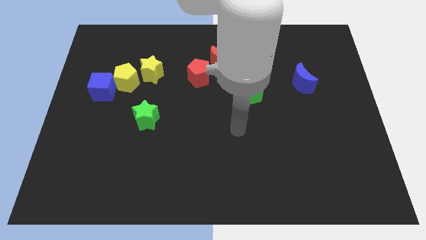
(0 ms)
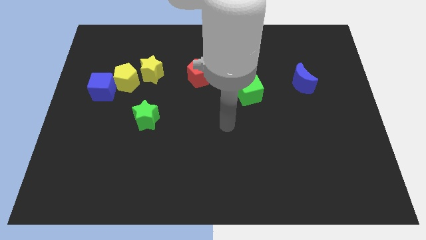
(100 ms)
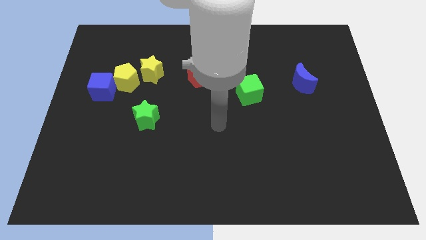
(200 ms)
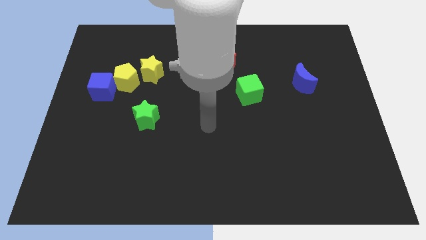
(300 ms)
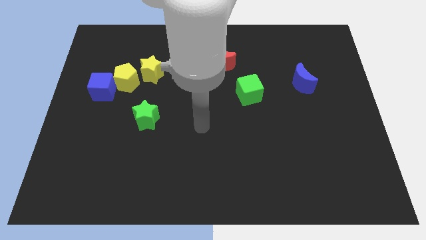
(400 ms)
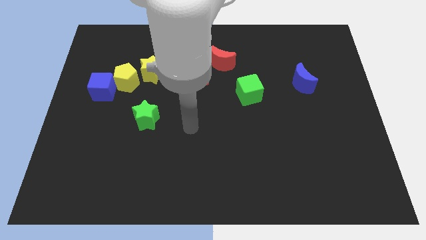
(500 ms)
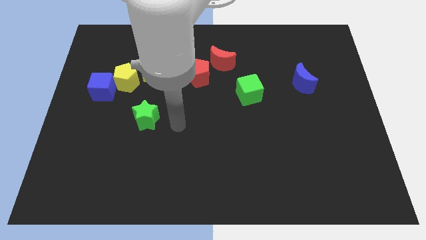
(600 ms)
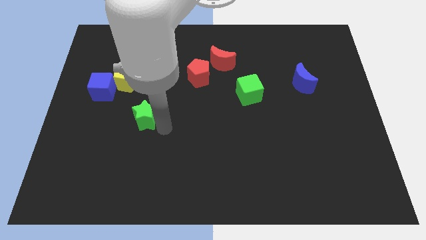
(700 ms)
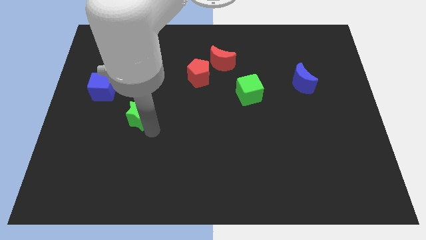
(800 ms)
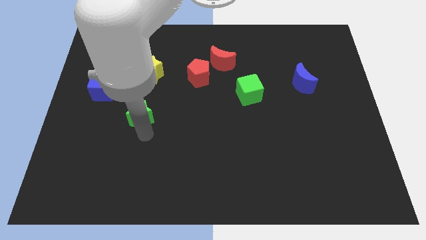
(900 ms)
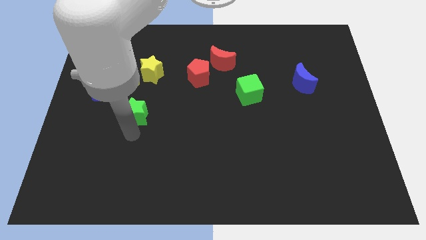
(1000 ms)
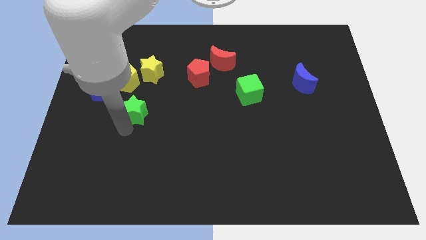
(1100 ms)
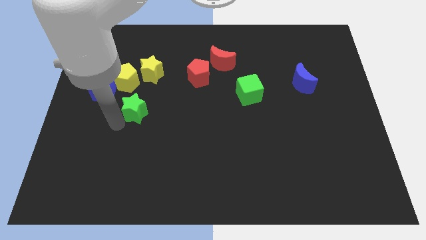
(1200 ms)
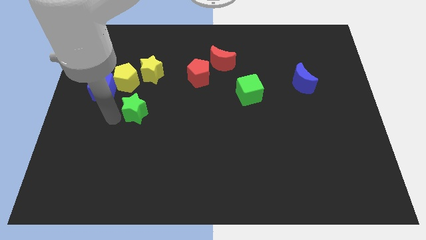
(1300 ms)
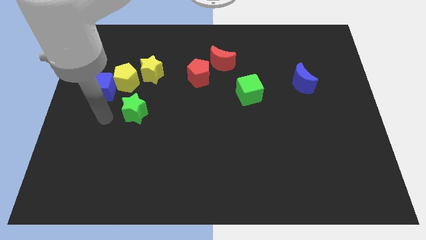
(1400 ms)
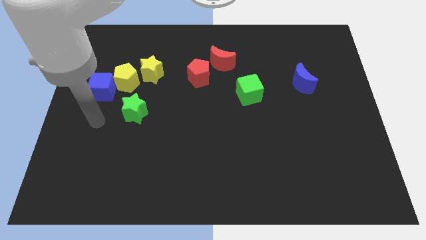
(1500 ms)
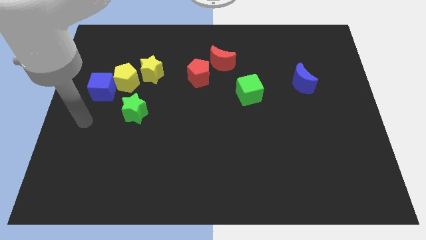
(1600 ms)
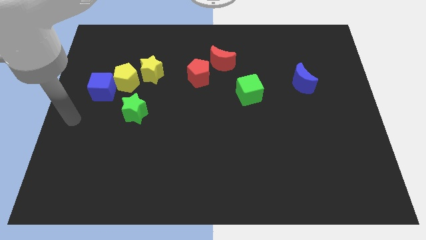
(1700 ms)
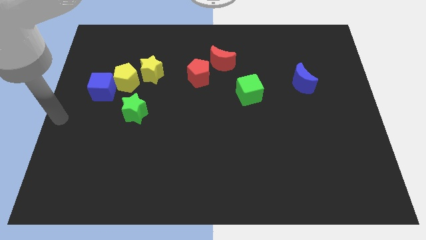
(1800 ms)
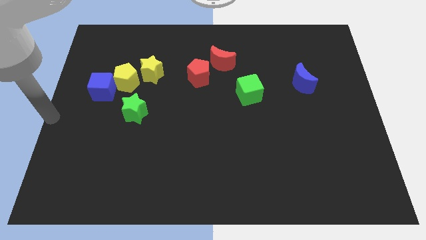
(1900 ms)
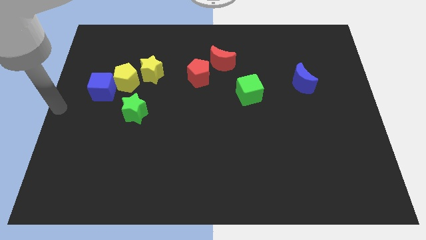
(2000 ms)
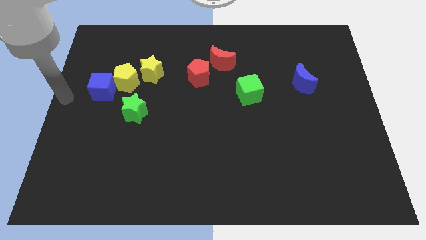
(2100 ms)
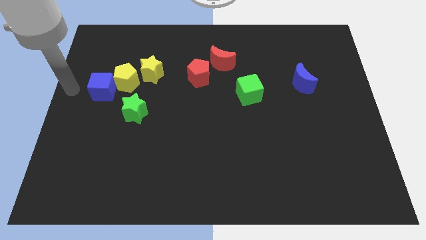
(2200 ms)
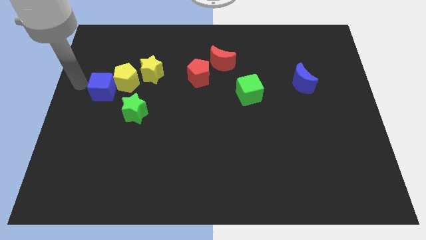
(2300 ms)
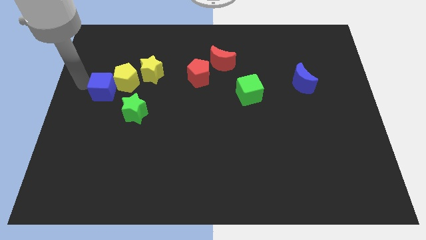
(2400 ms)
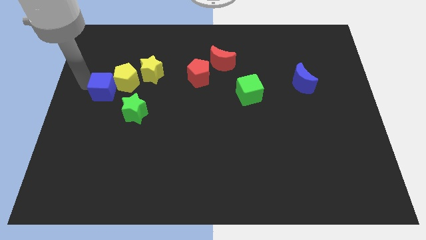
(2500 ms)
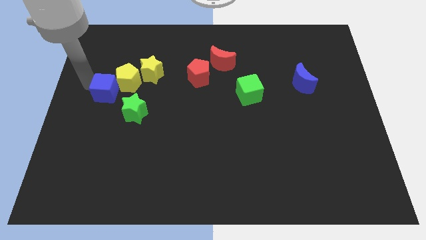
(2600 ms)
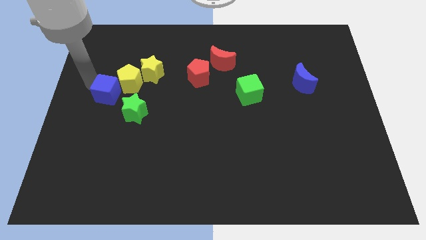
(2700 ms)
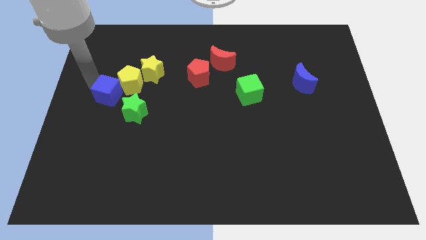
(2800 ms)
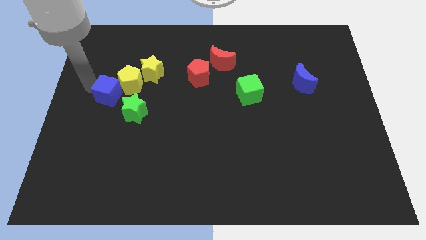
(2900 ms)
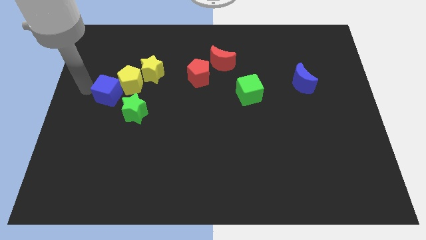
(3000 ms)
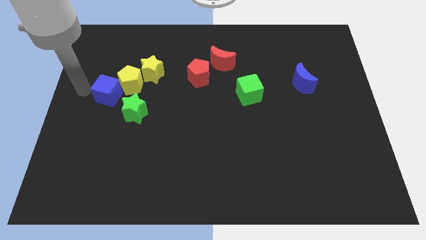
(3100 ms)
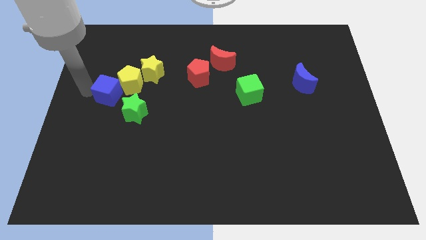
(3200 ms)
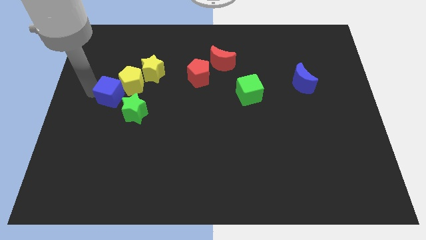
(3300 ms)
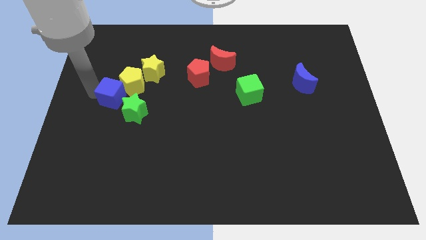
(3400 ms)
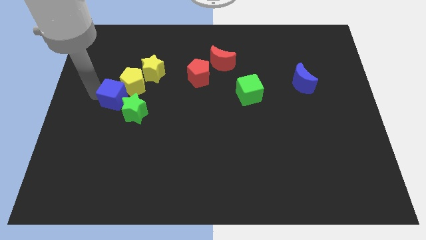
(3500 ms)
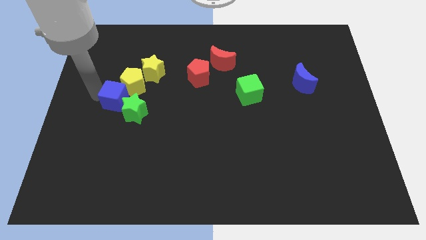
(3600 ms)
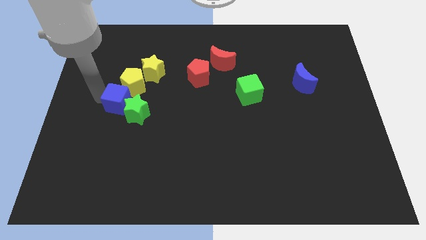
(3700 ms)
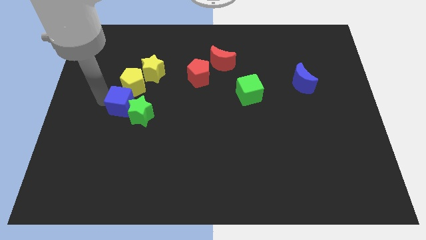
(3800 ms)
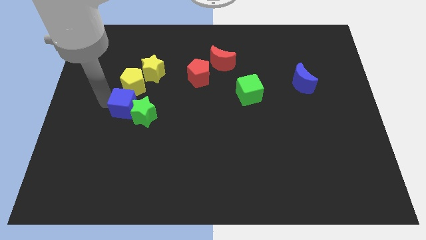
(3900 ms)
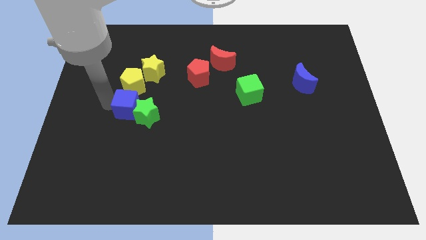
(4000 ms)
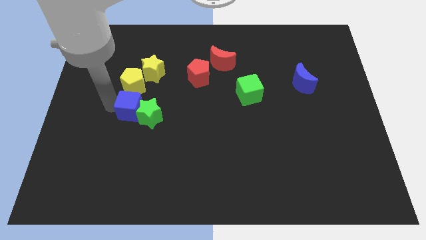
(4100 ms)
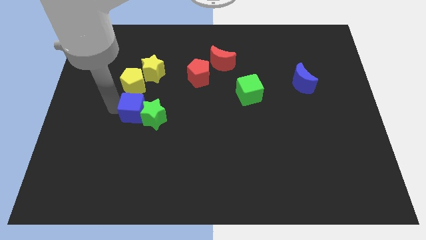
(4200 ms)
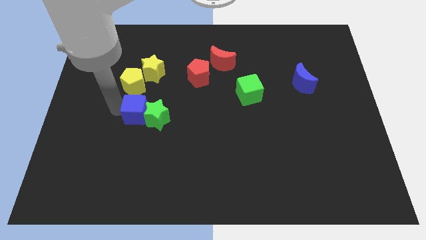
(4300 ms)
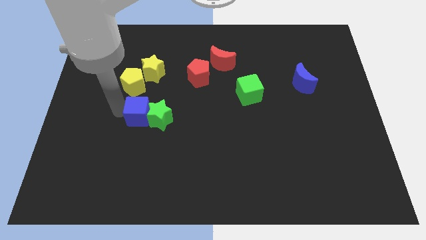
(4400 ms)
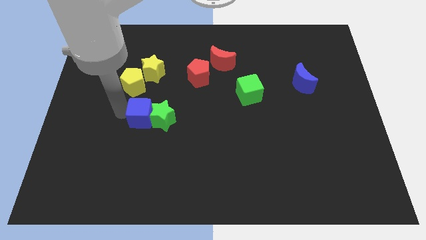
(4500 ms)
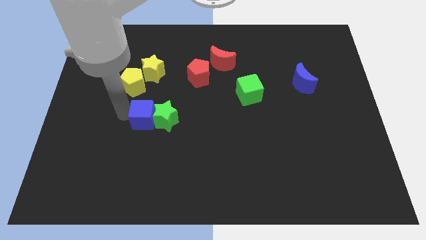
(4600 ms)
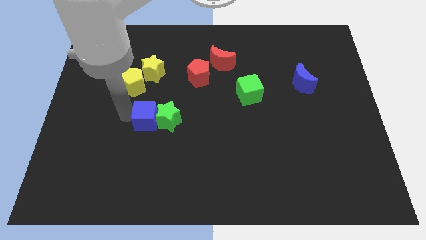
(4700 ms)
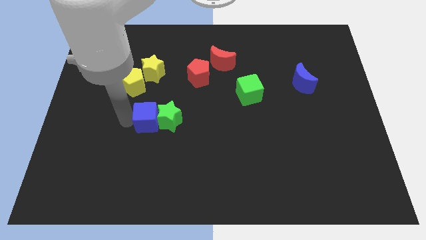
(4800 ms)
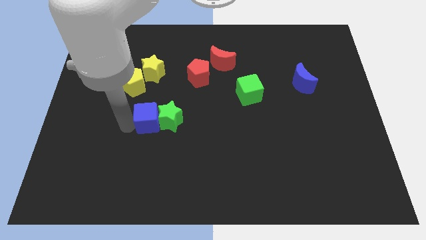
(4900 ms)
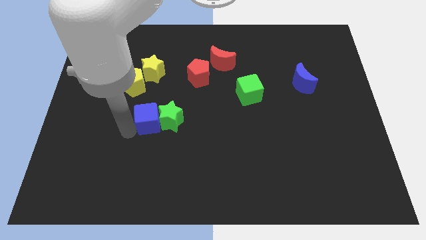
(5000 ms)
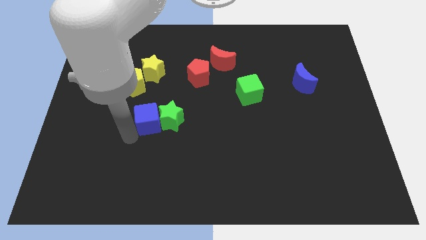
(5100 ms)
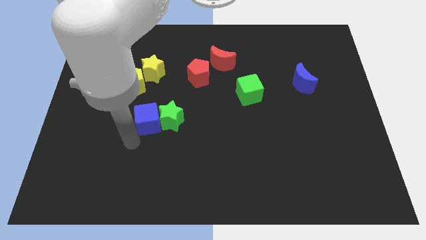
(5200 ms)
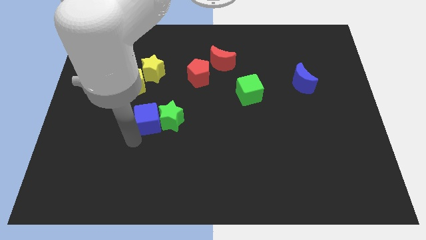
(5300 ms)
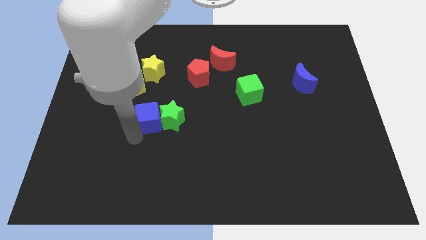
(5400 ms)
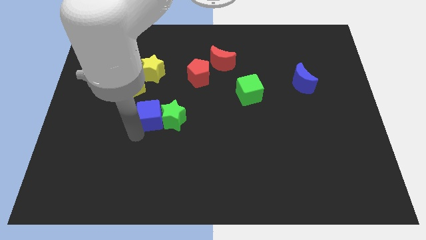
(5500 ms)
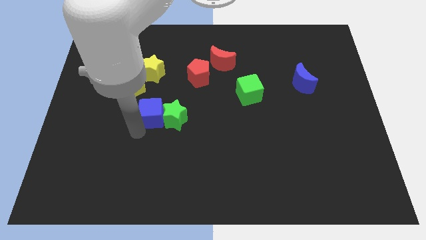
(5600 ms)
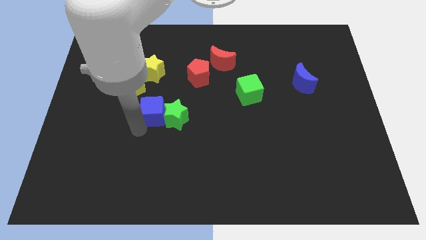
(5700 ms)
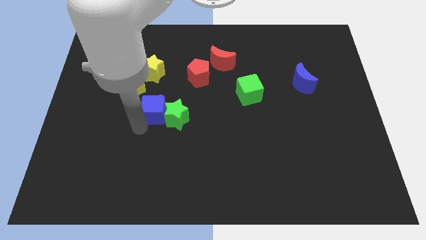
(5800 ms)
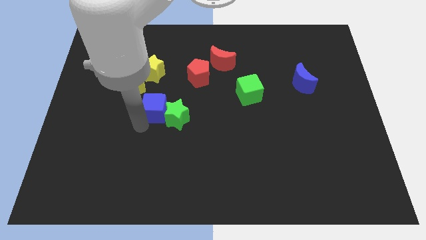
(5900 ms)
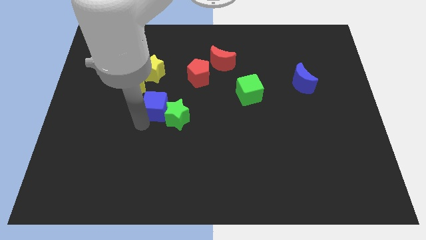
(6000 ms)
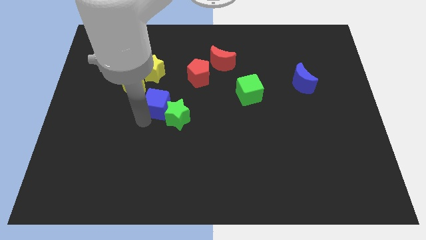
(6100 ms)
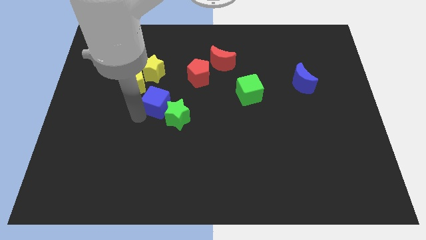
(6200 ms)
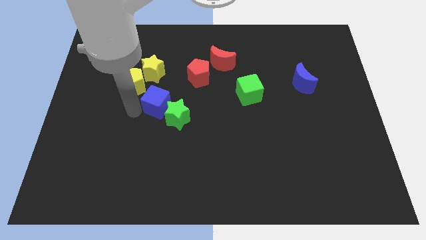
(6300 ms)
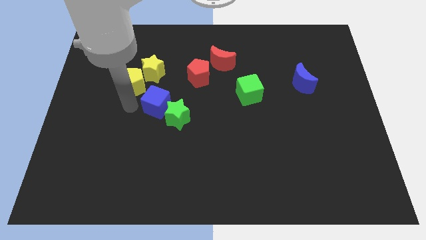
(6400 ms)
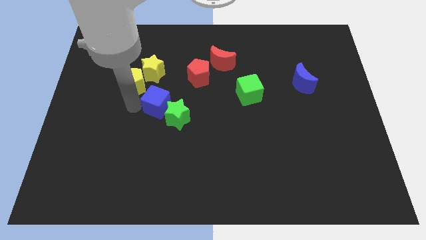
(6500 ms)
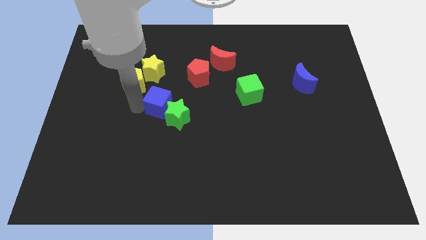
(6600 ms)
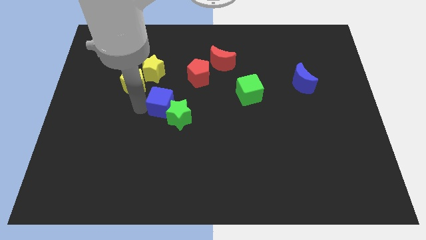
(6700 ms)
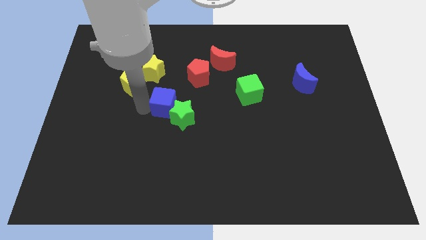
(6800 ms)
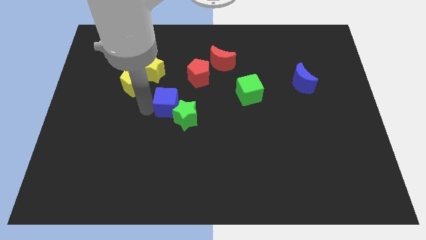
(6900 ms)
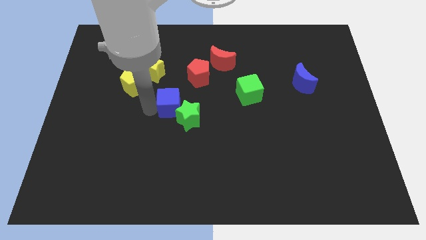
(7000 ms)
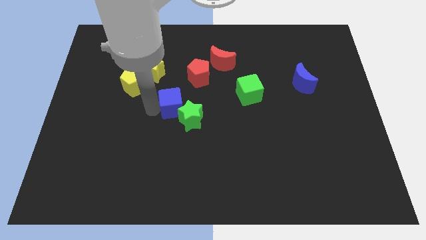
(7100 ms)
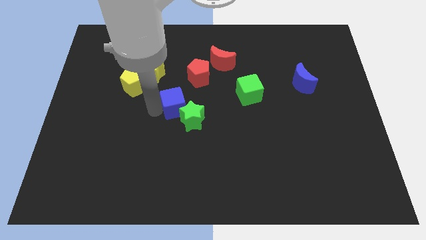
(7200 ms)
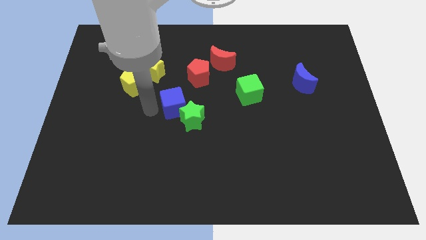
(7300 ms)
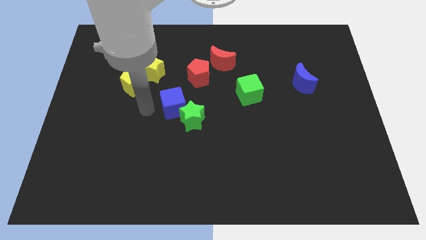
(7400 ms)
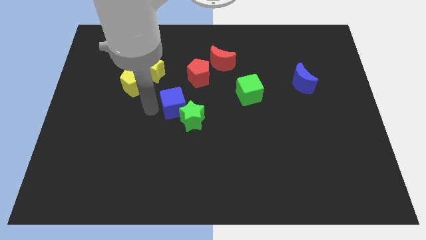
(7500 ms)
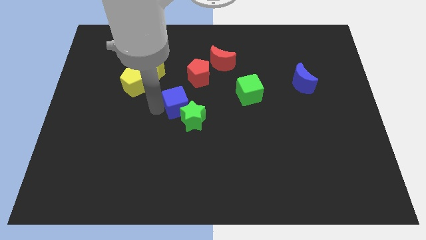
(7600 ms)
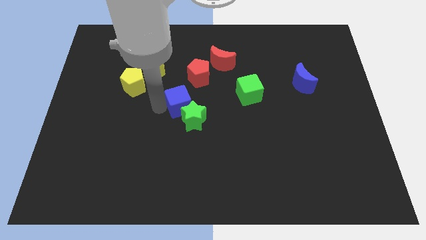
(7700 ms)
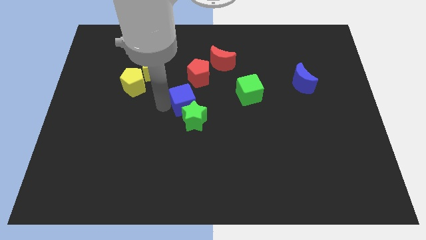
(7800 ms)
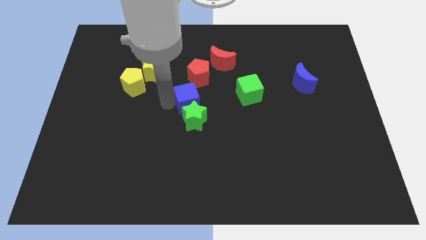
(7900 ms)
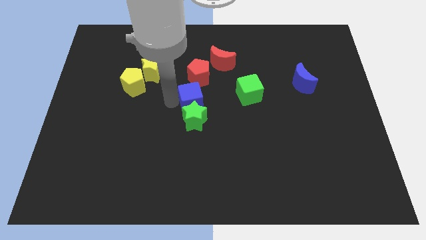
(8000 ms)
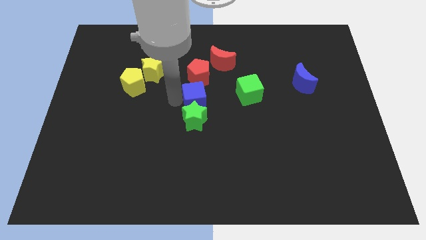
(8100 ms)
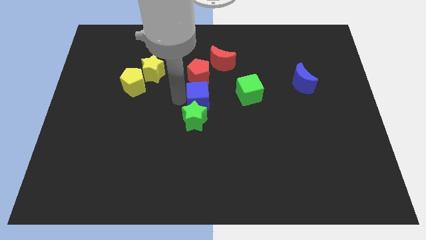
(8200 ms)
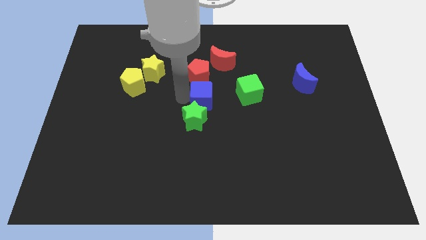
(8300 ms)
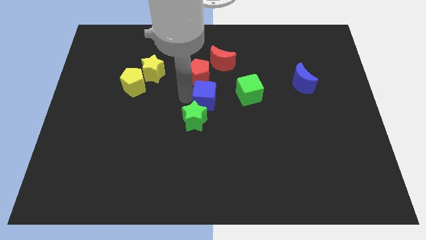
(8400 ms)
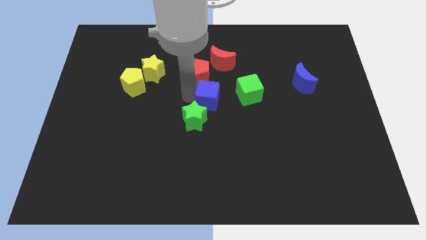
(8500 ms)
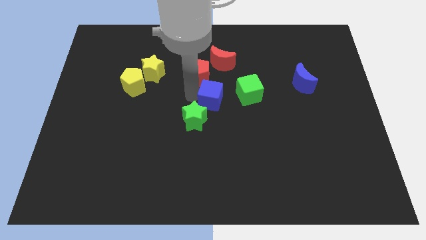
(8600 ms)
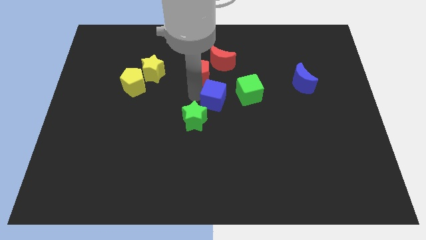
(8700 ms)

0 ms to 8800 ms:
push the blue cube to the bottom left side of the green cube
